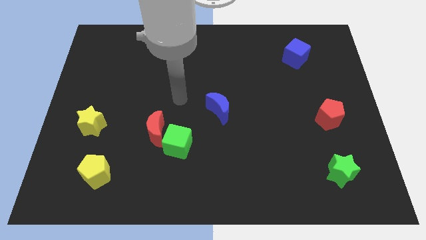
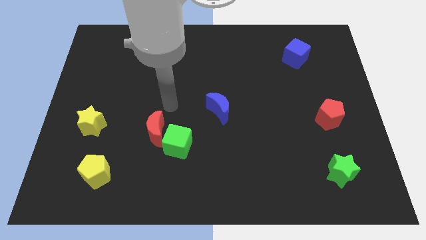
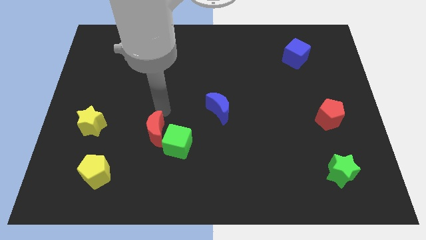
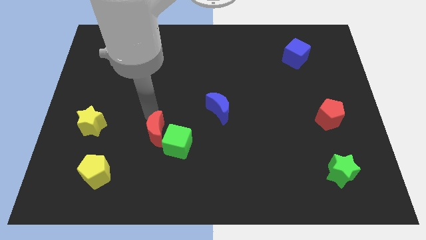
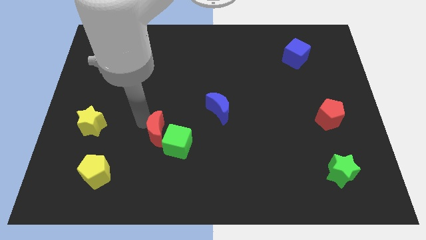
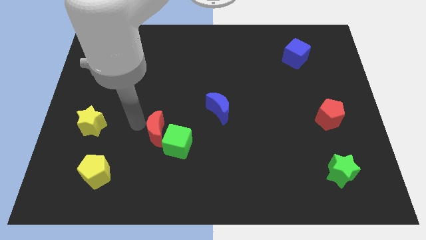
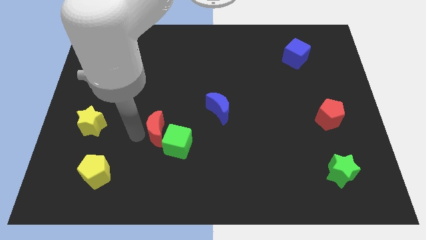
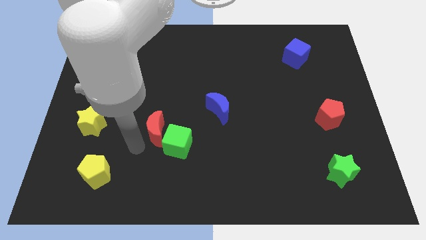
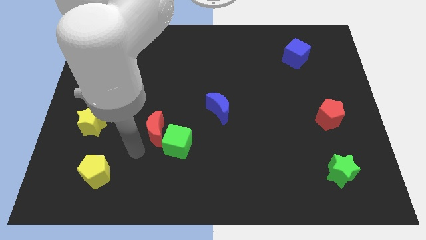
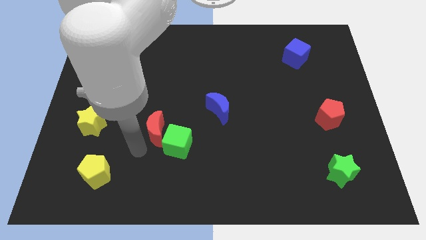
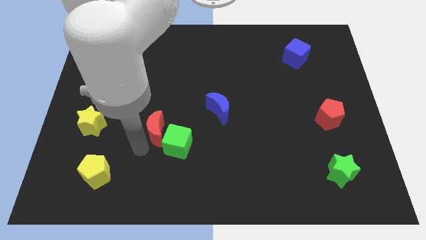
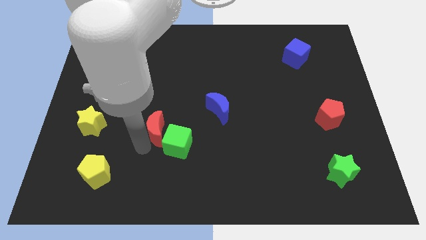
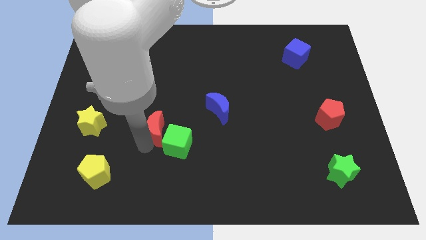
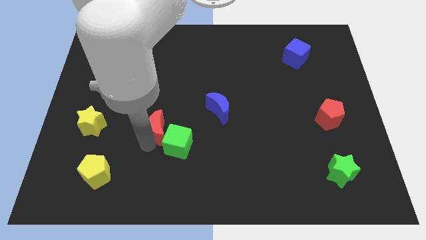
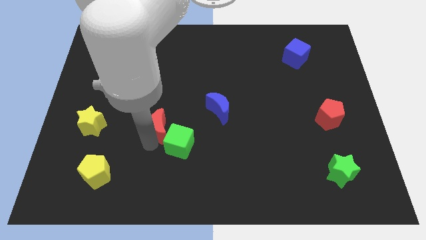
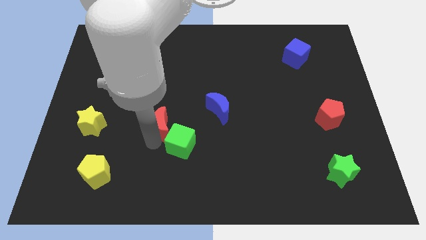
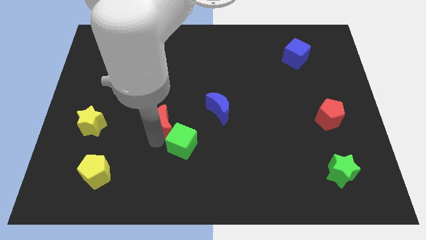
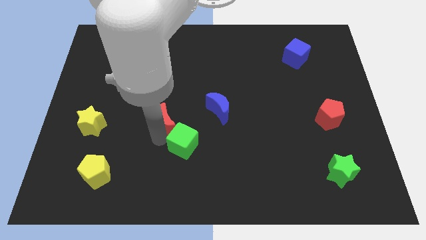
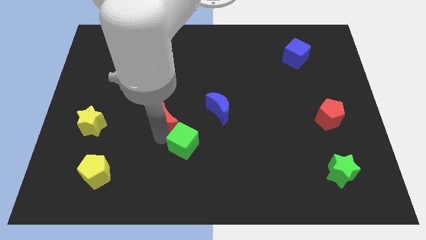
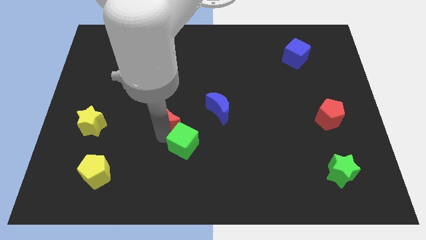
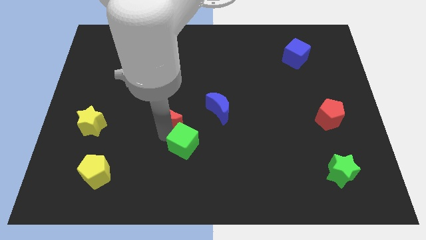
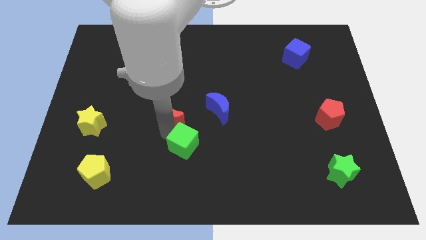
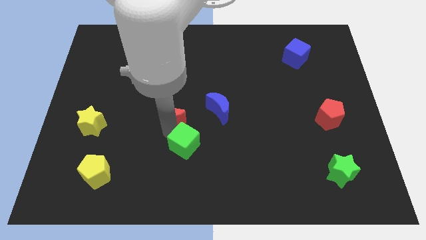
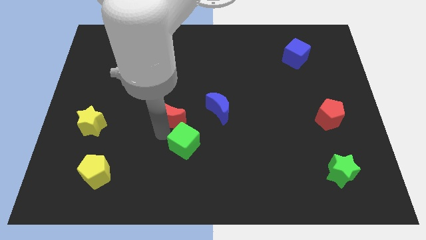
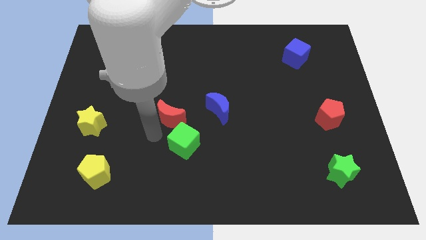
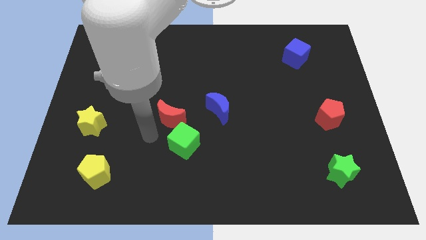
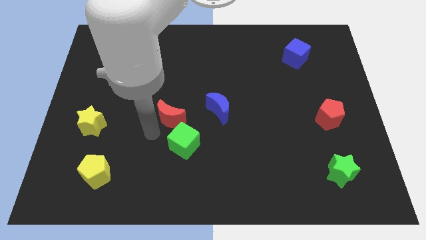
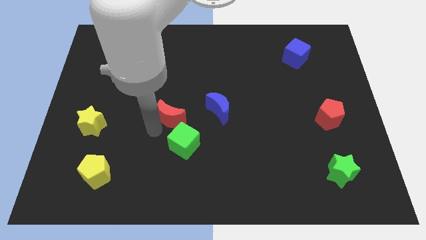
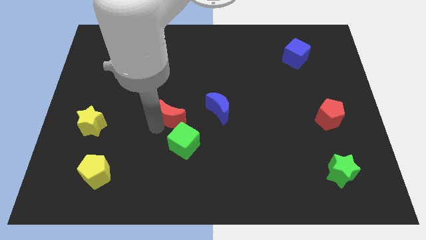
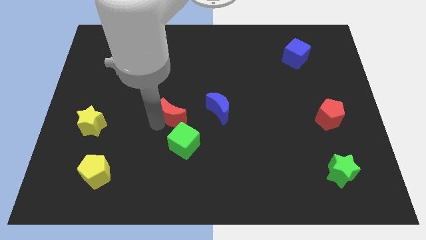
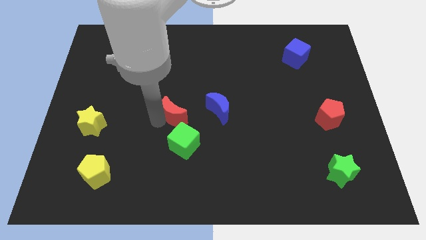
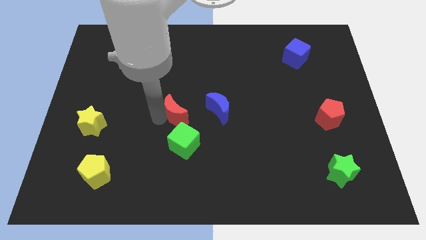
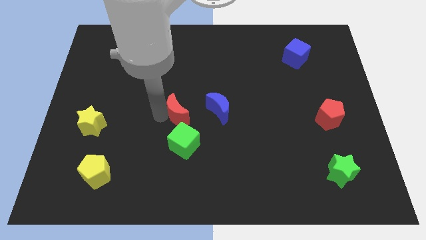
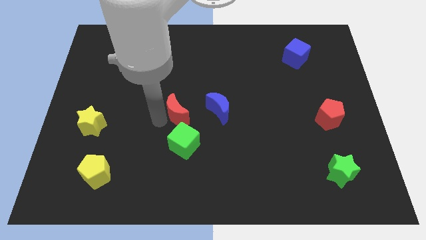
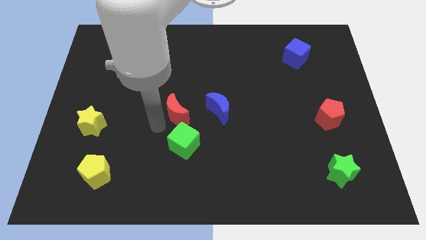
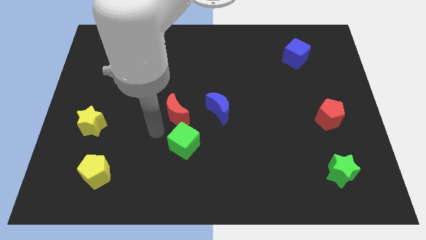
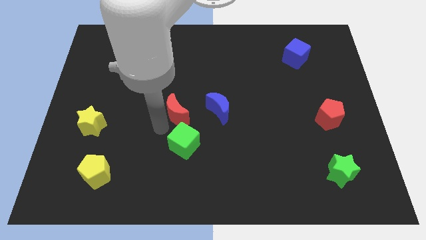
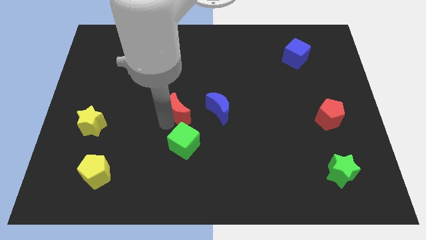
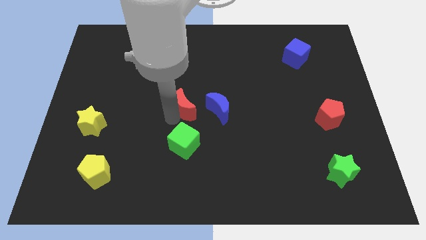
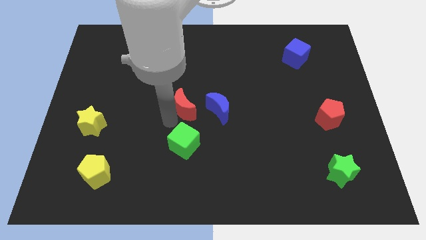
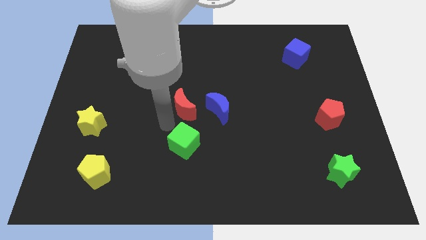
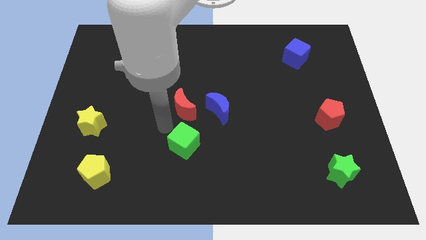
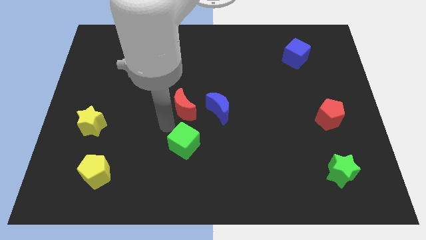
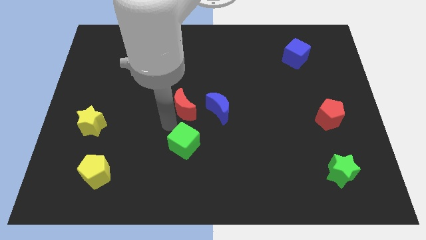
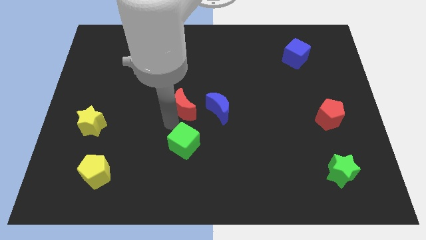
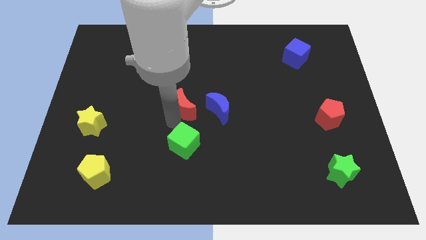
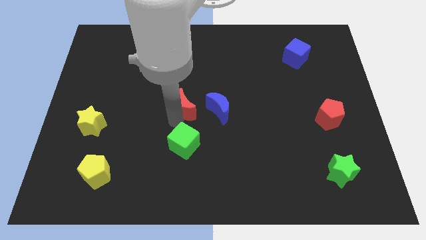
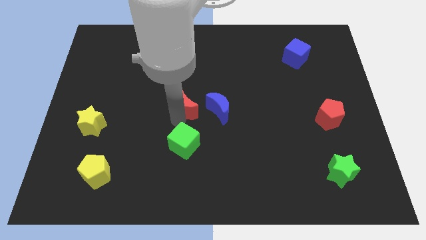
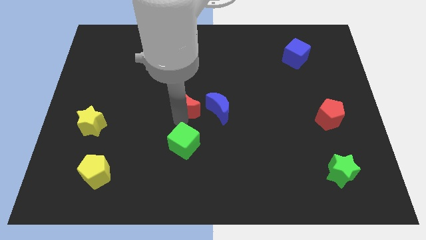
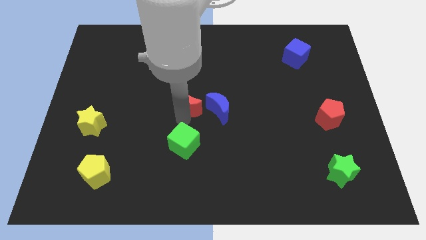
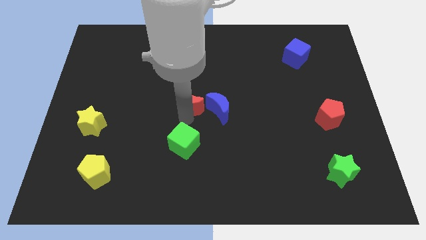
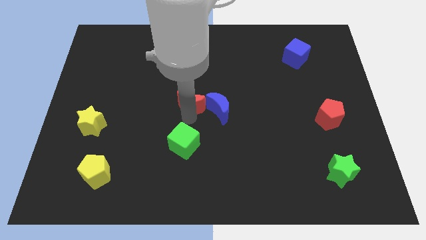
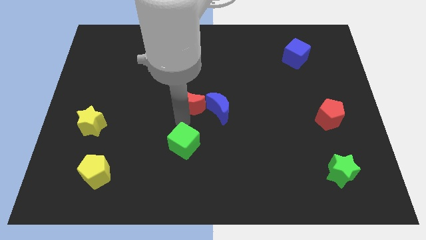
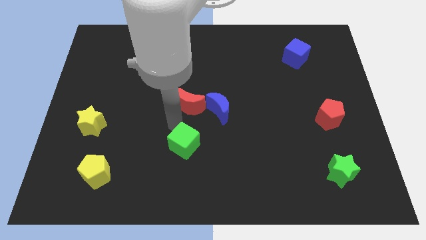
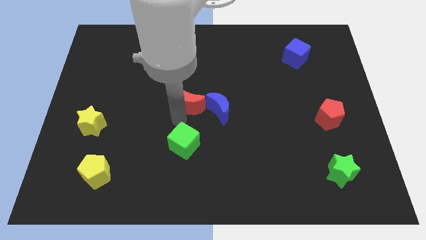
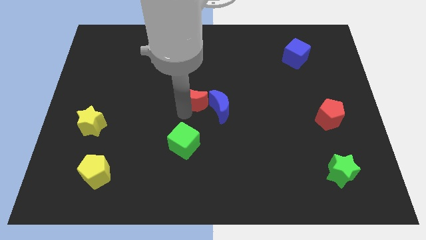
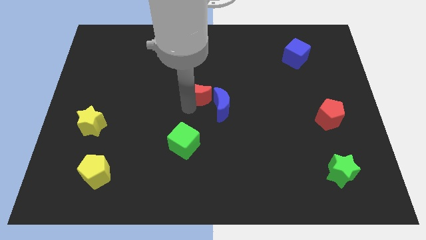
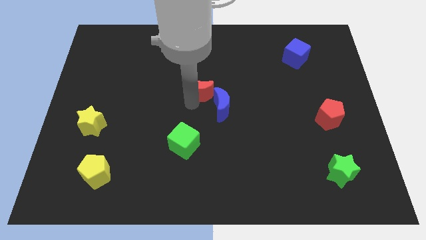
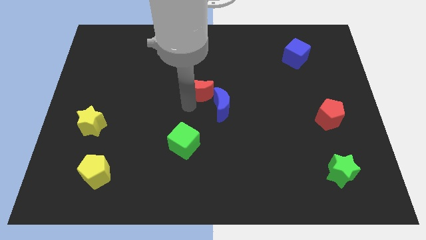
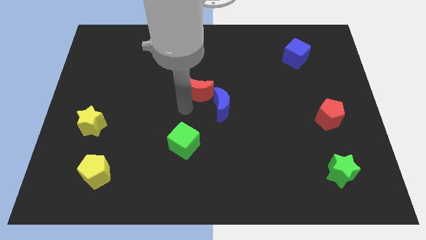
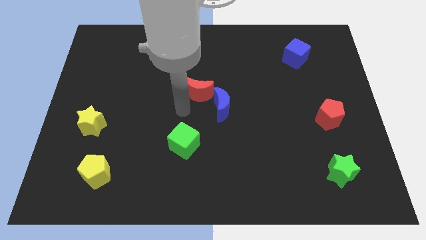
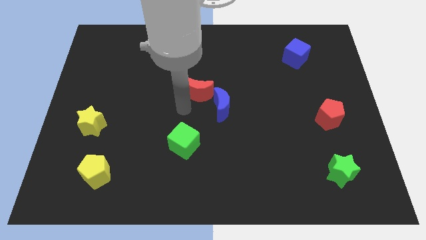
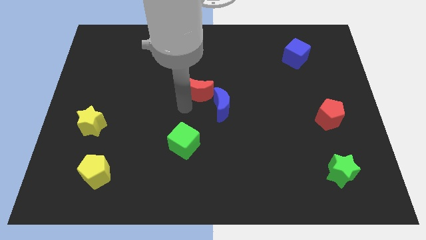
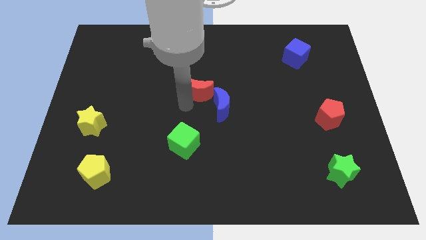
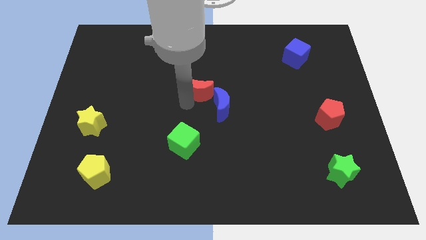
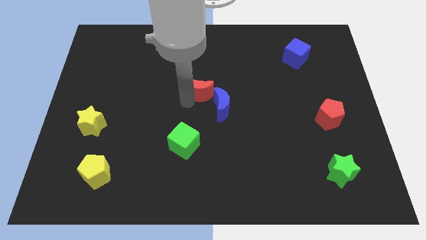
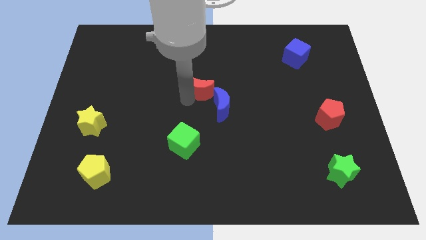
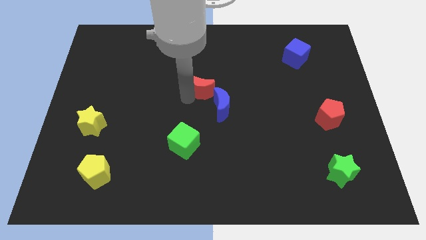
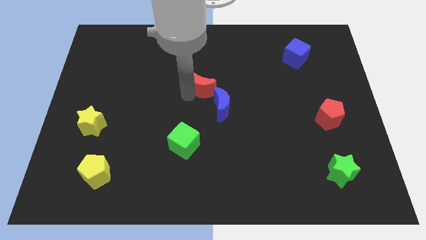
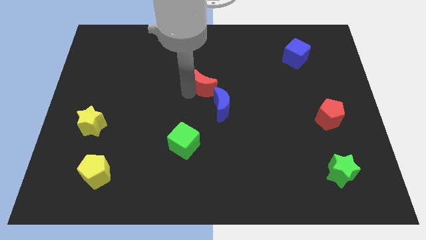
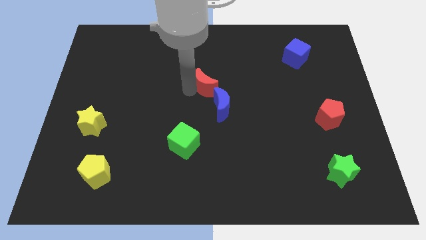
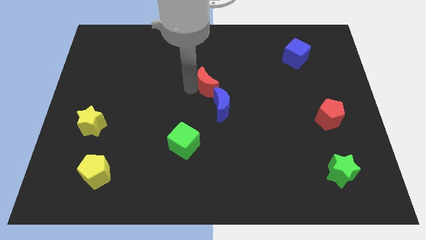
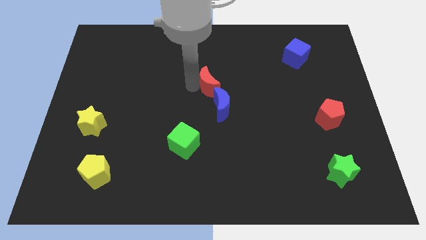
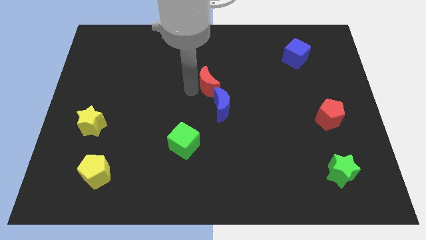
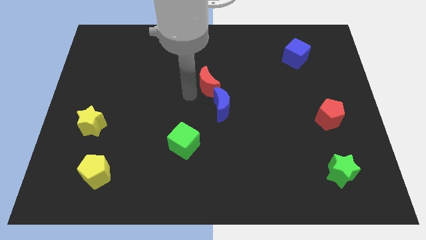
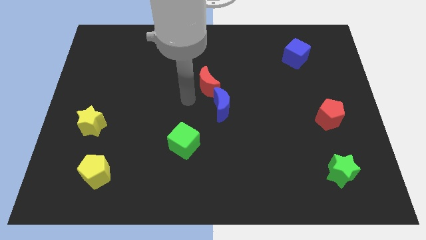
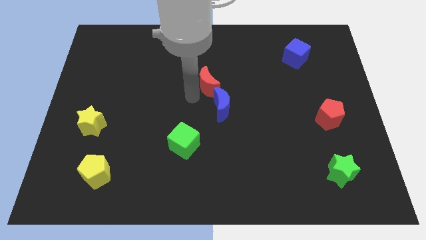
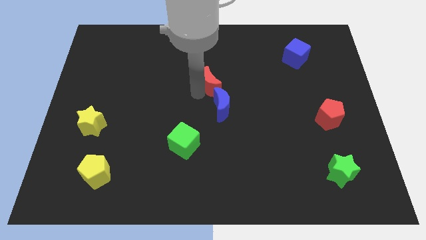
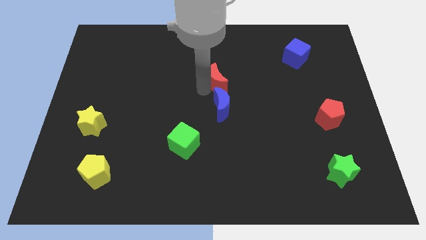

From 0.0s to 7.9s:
slide the red moon diagonally up and to the right

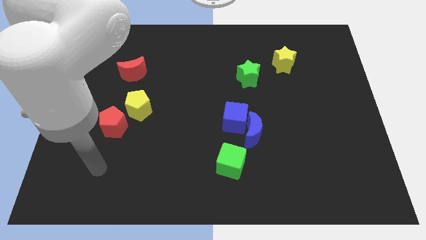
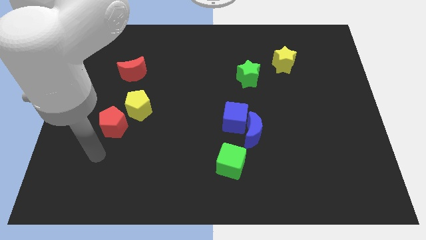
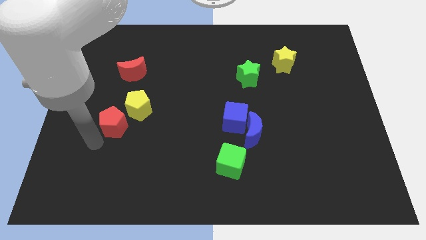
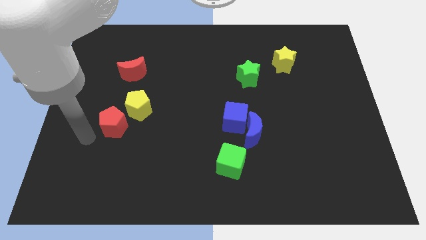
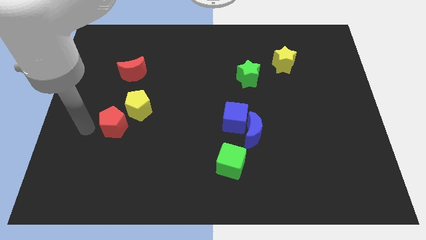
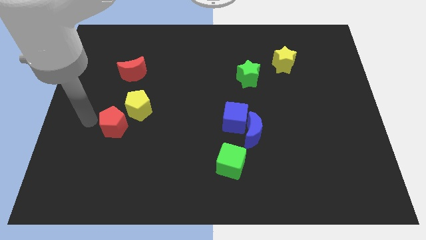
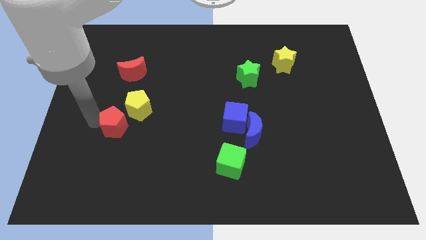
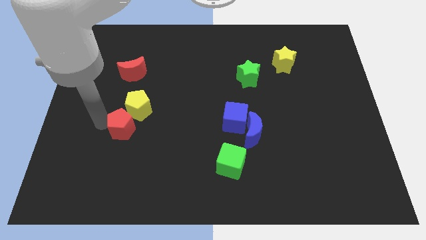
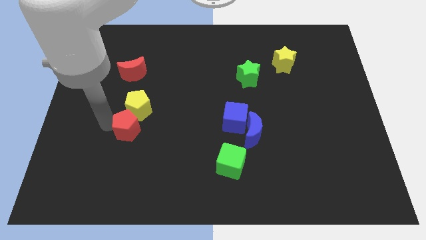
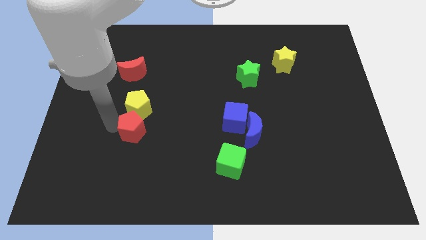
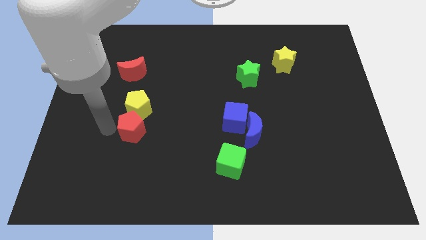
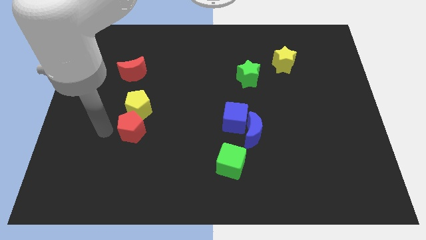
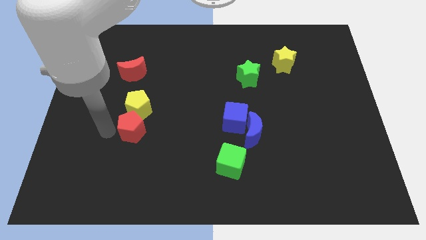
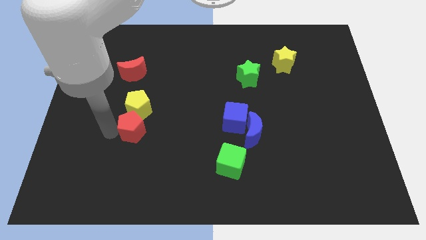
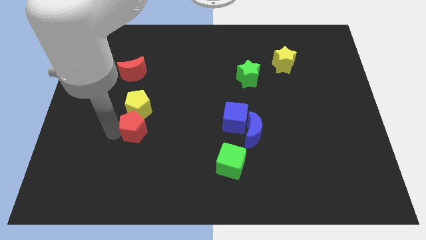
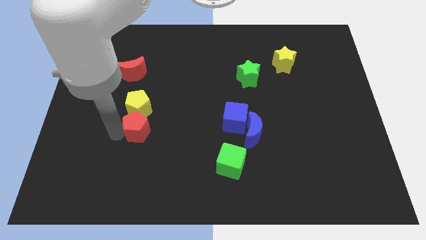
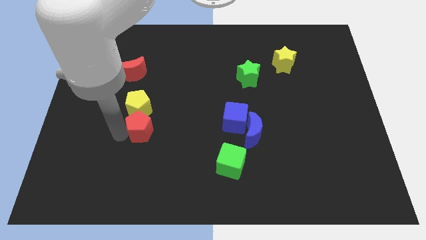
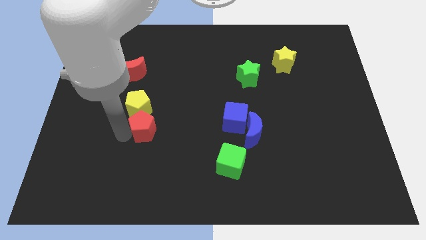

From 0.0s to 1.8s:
slightly slide the red pentagon to the right
